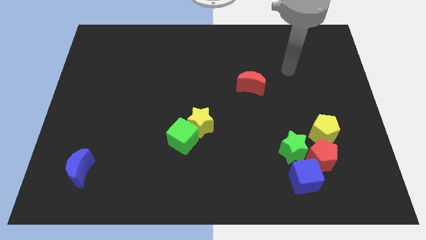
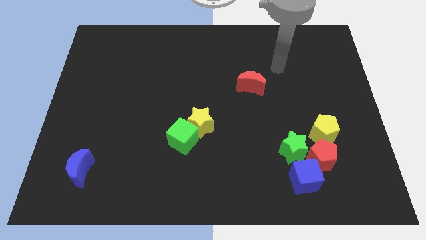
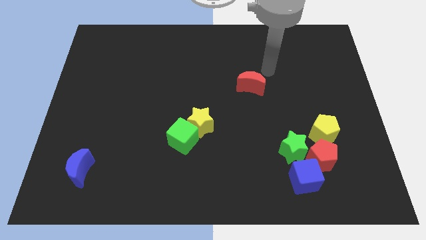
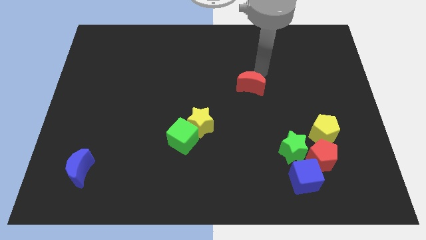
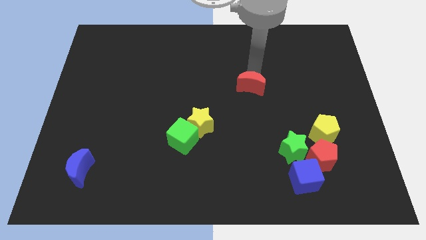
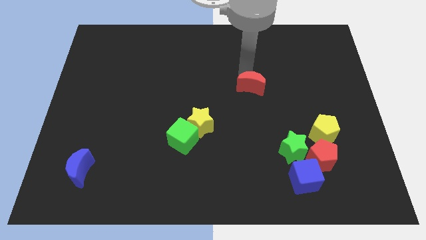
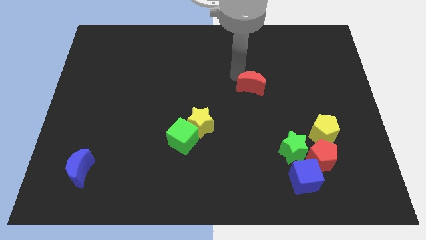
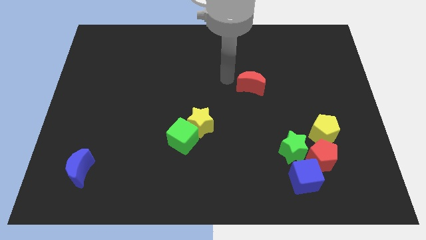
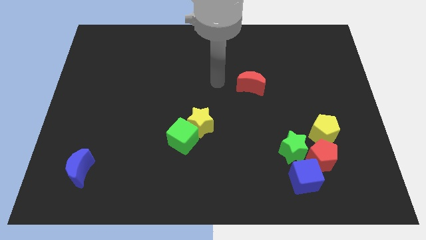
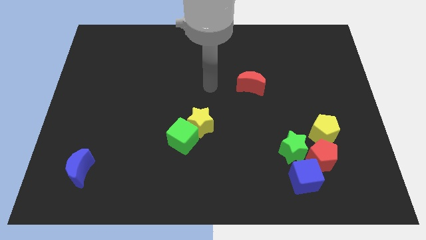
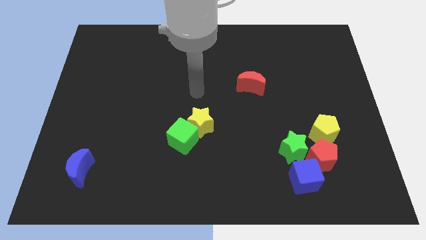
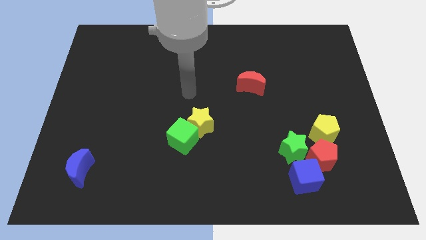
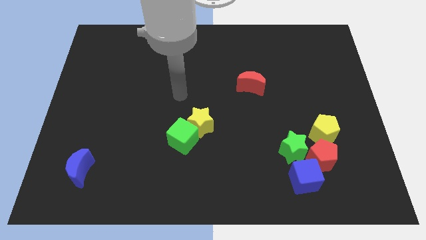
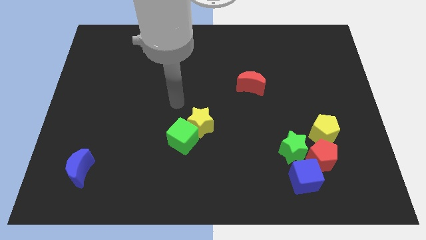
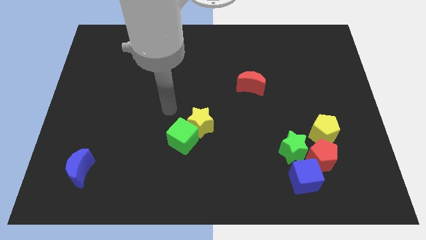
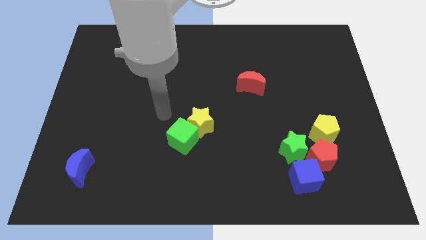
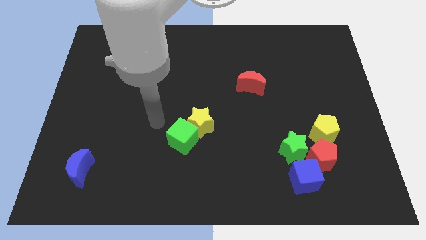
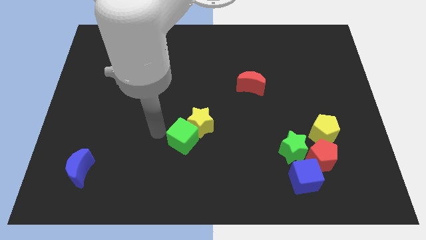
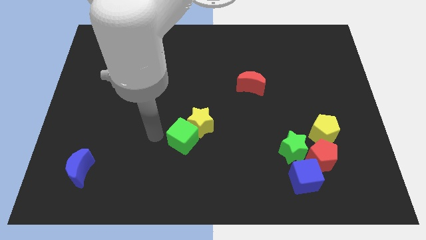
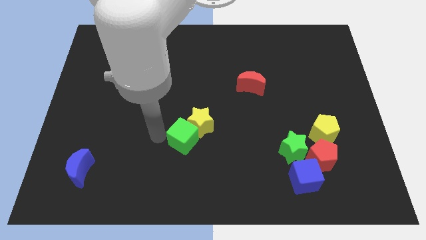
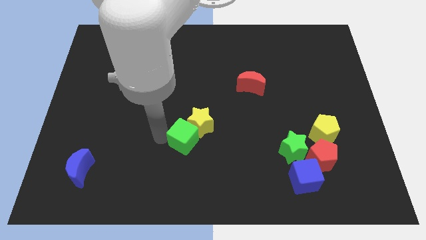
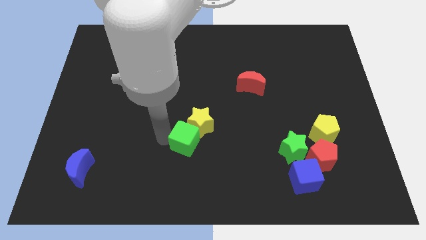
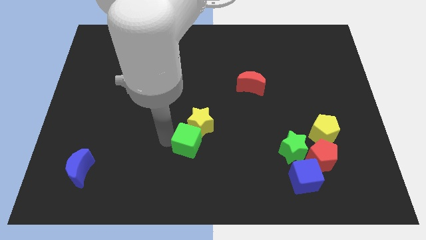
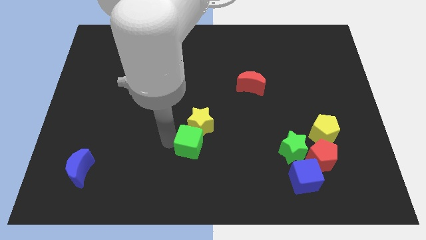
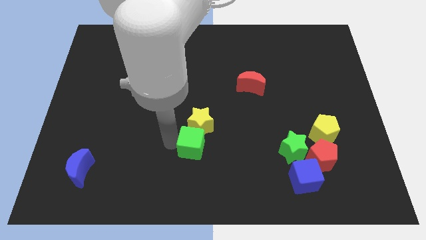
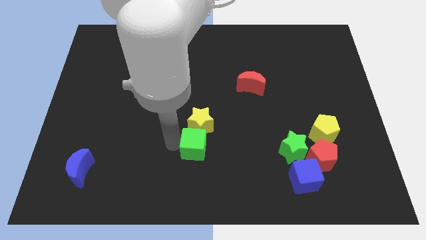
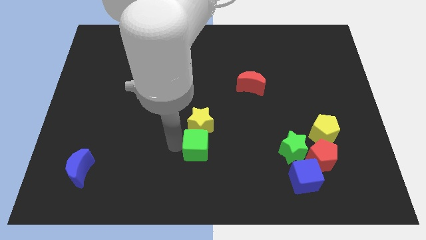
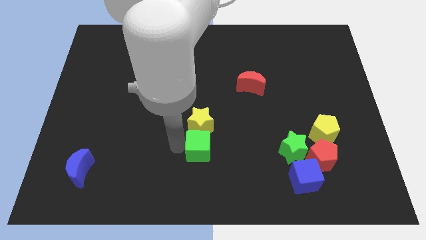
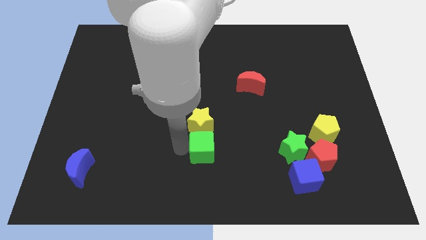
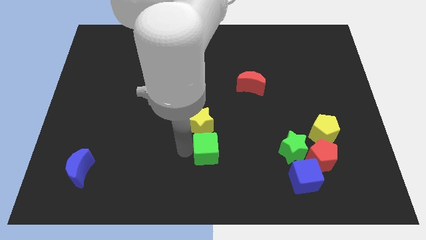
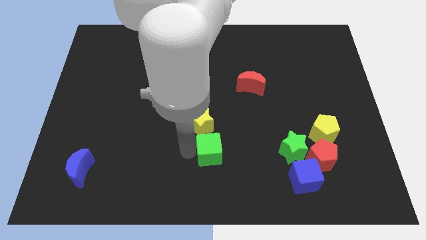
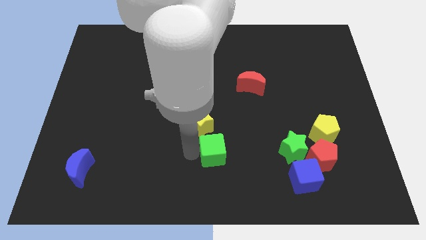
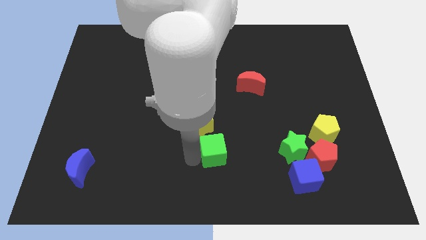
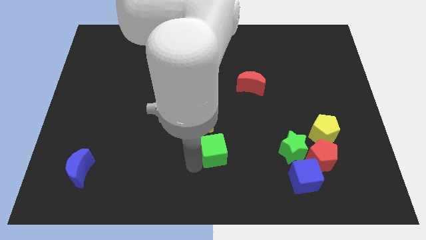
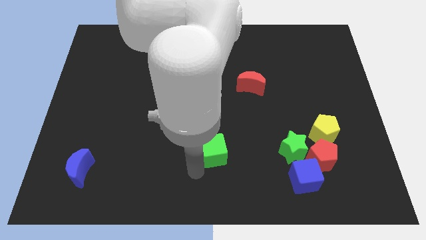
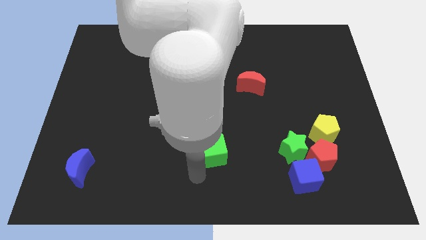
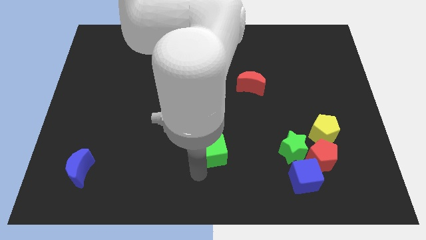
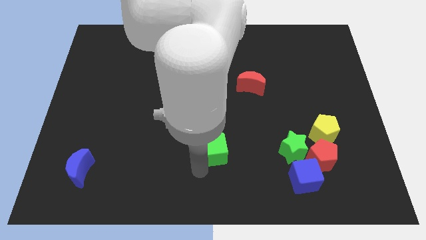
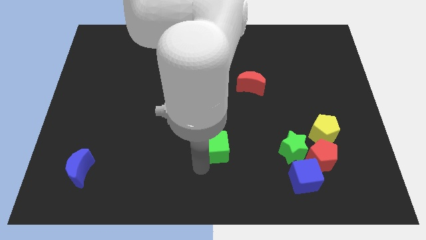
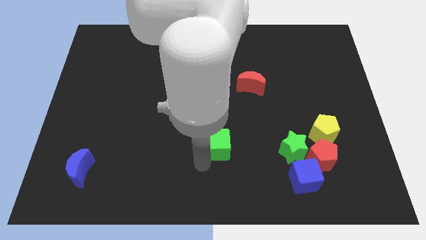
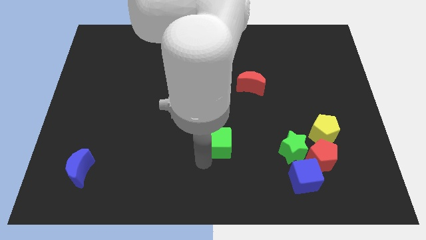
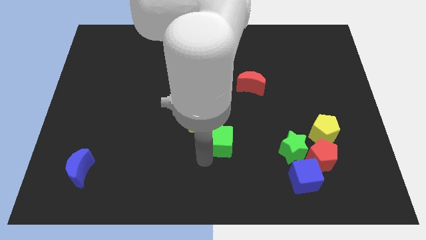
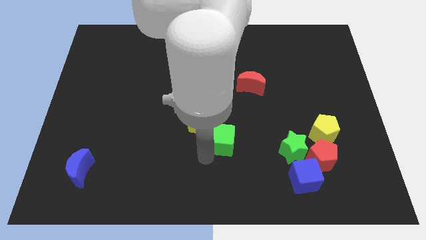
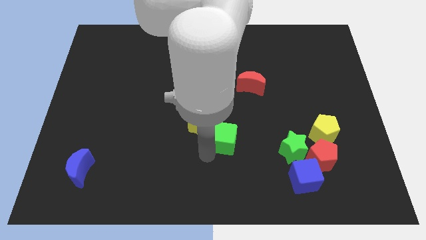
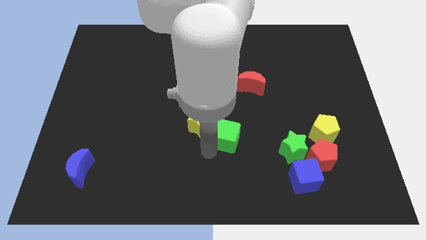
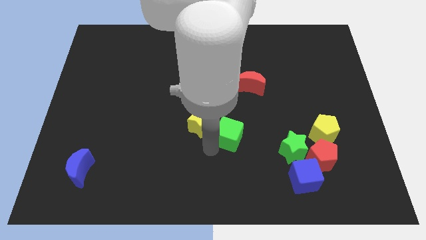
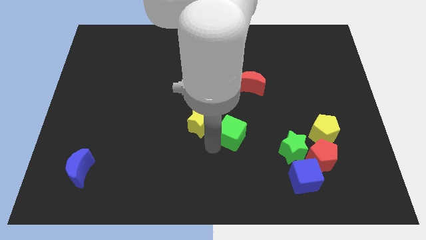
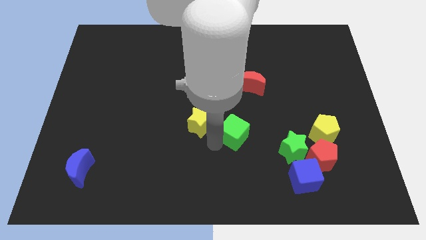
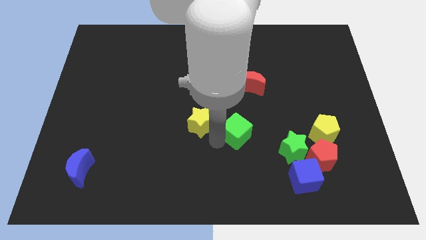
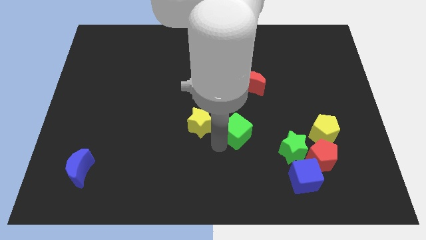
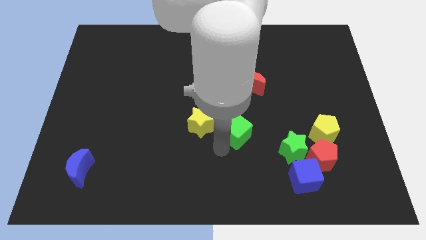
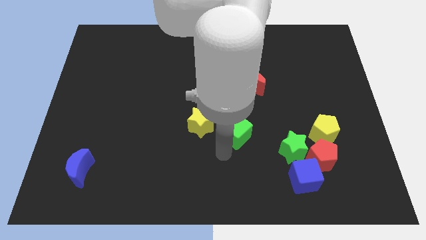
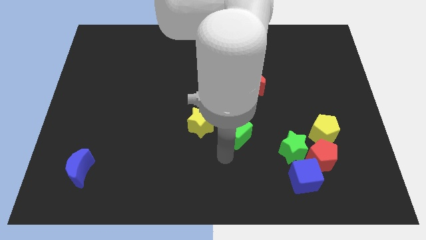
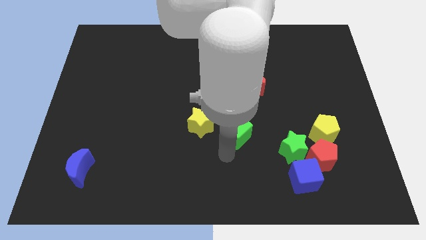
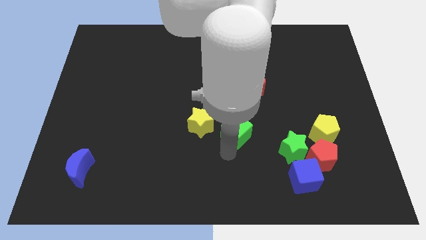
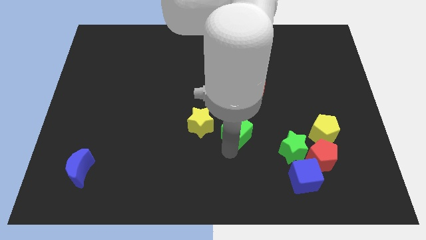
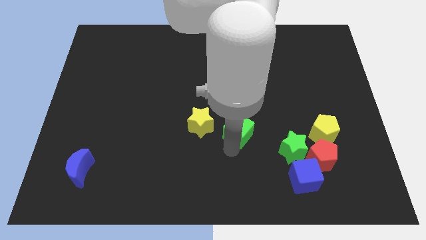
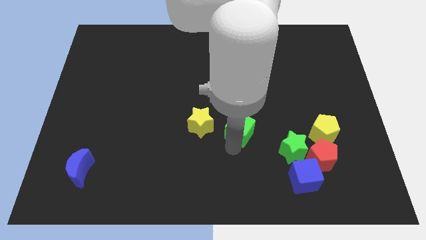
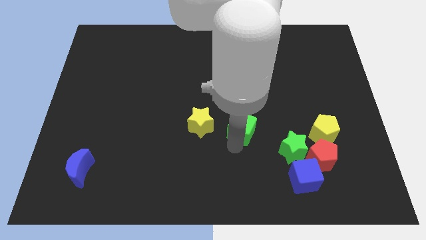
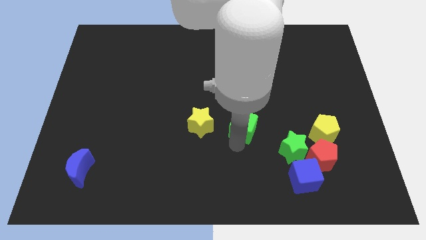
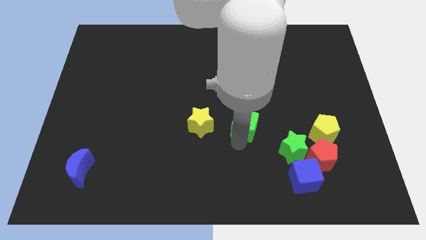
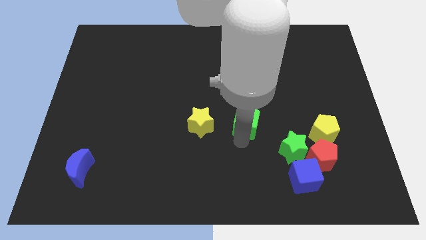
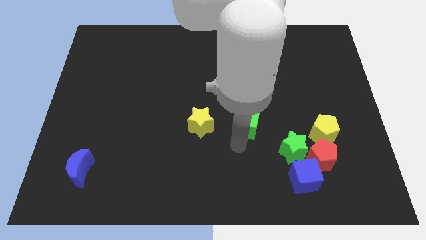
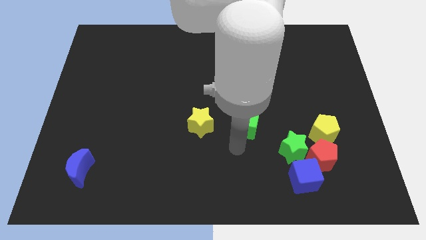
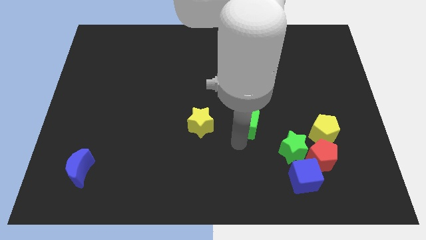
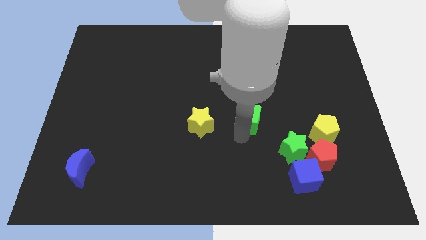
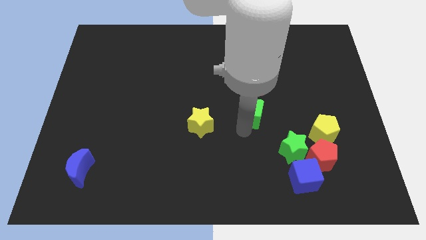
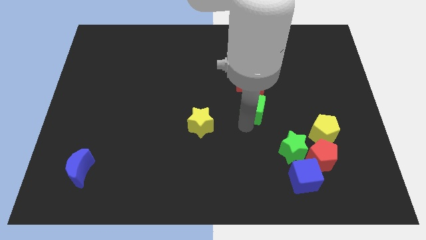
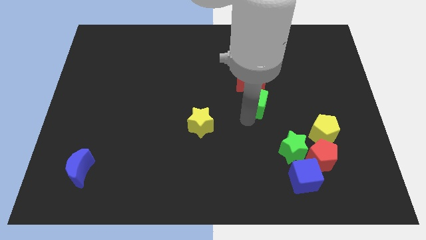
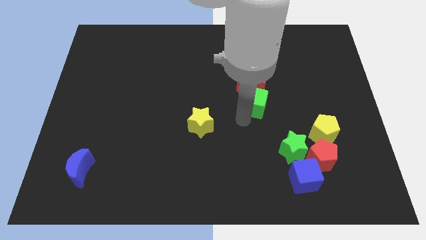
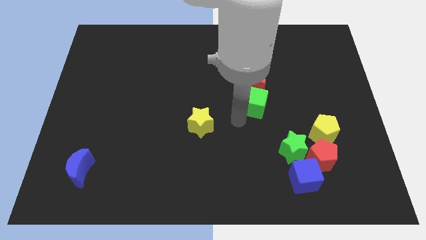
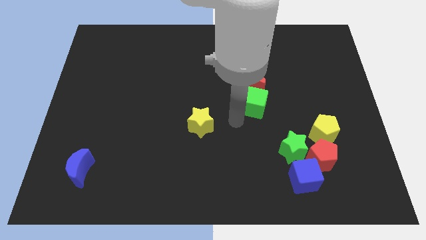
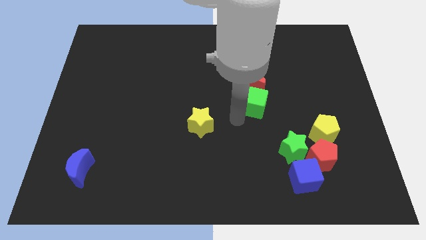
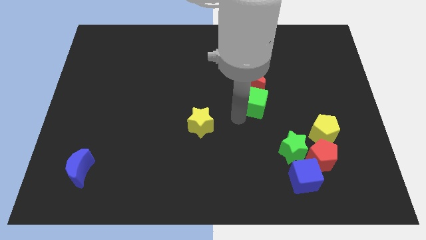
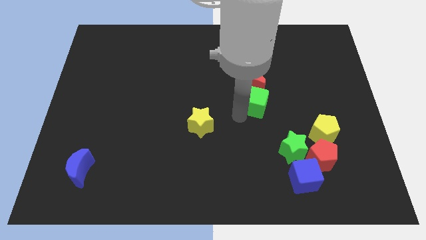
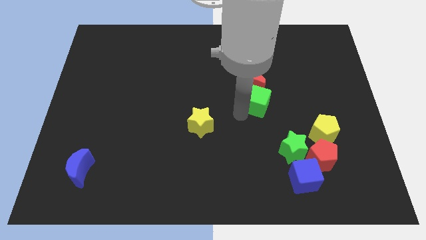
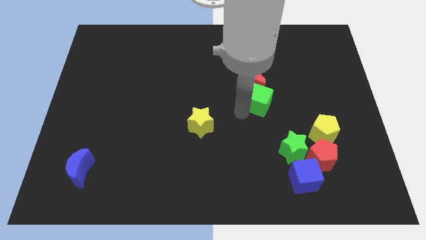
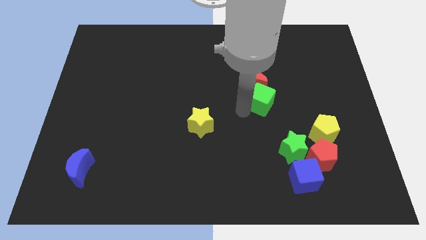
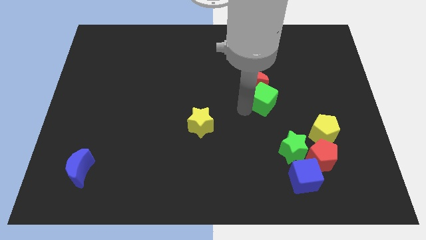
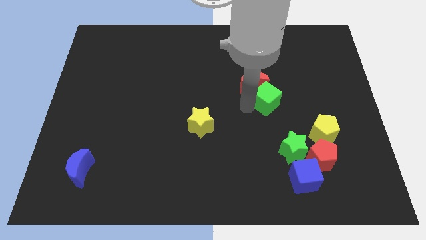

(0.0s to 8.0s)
move the green cube upwards and then to the right
